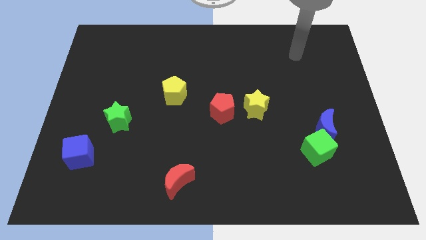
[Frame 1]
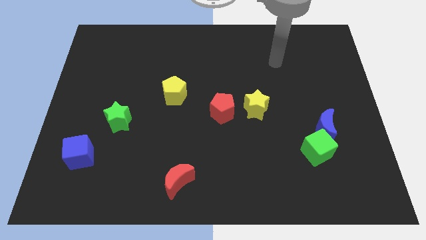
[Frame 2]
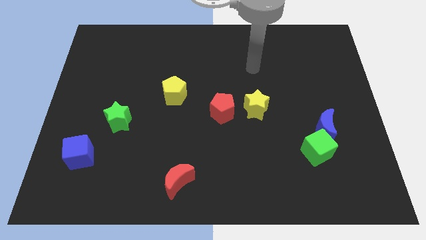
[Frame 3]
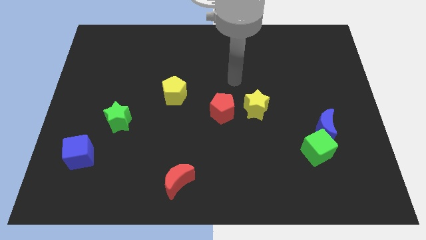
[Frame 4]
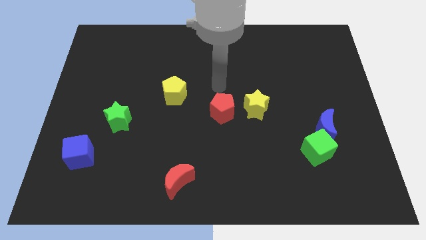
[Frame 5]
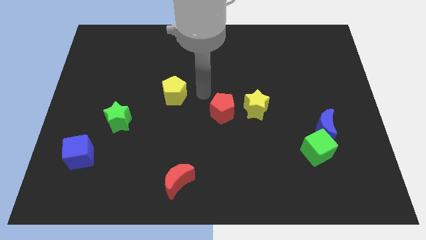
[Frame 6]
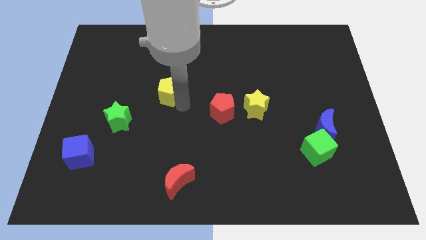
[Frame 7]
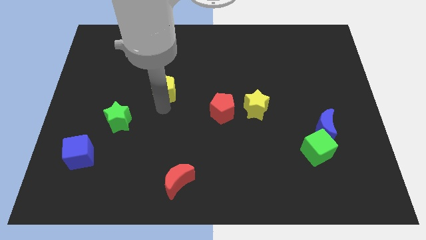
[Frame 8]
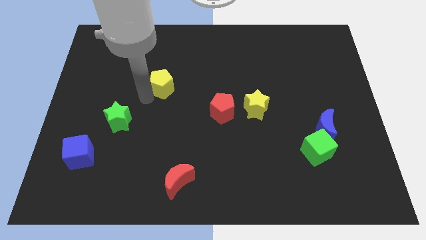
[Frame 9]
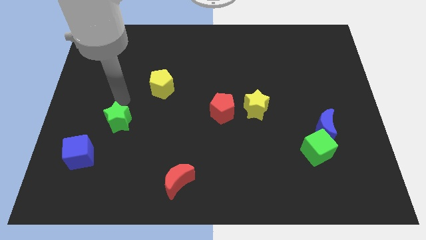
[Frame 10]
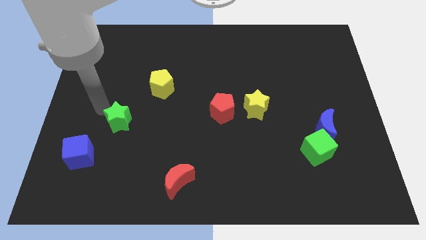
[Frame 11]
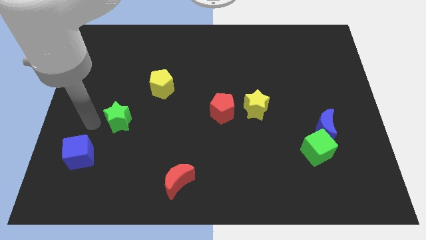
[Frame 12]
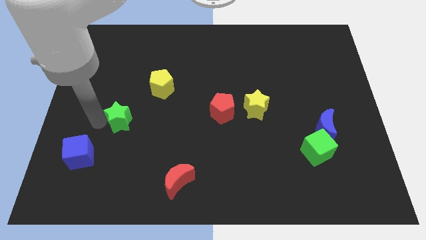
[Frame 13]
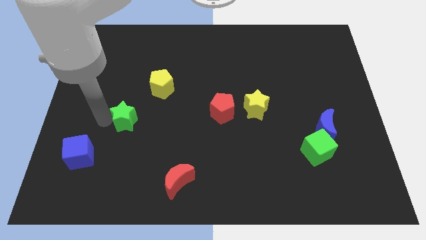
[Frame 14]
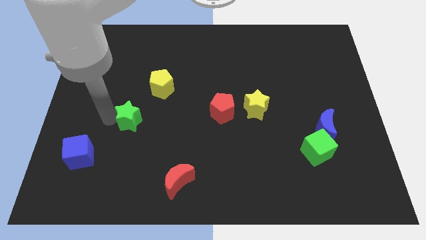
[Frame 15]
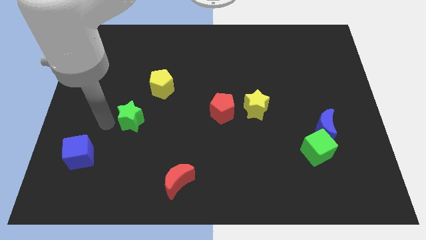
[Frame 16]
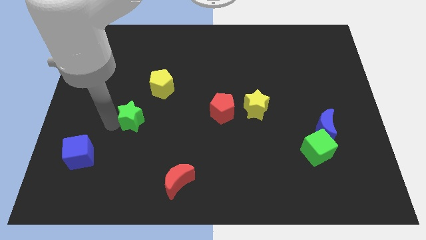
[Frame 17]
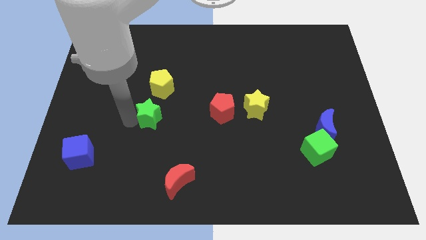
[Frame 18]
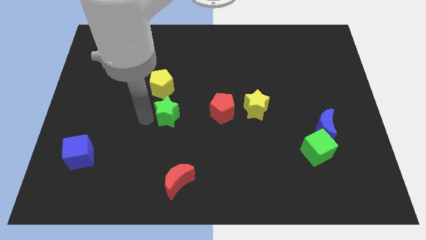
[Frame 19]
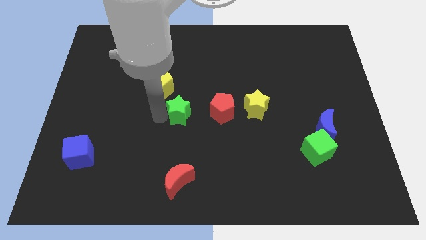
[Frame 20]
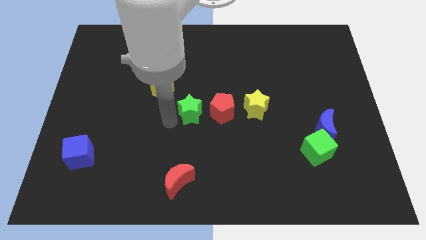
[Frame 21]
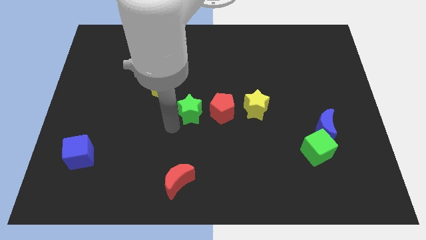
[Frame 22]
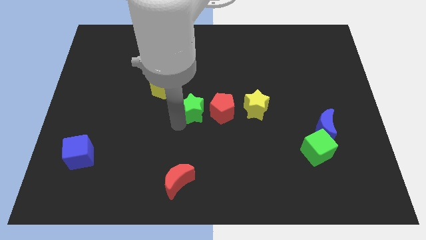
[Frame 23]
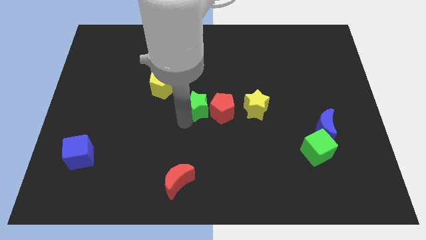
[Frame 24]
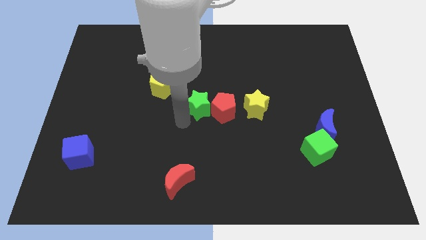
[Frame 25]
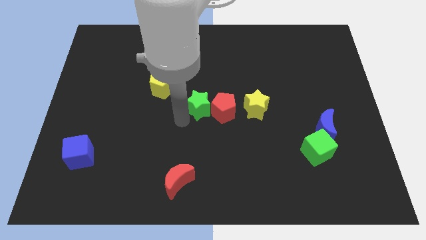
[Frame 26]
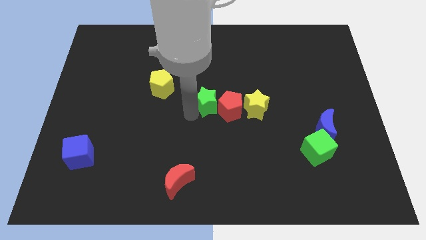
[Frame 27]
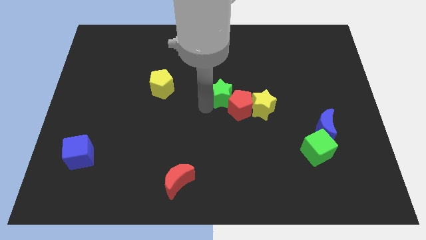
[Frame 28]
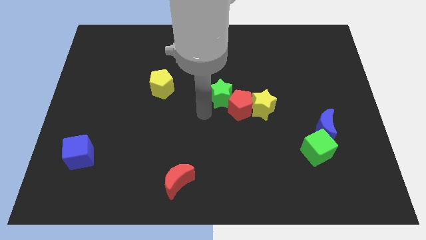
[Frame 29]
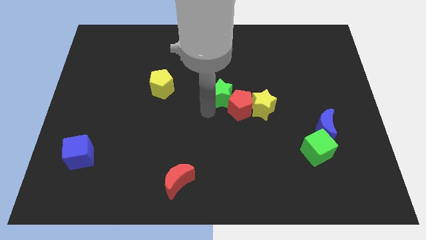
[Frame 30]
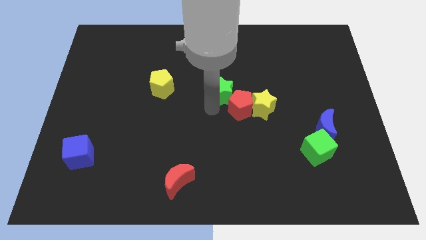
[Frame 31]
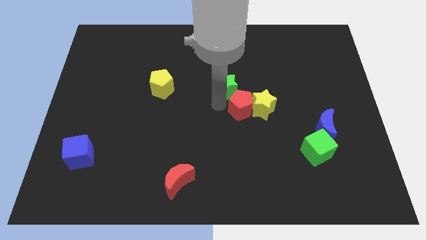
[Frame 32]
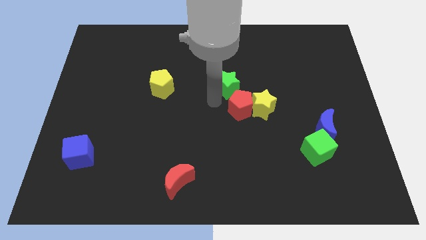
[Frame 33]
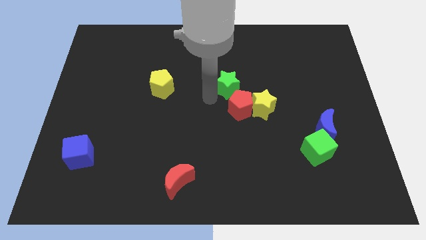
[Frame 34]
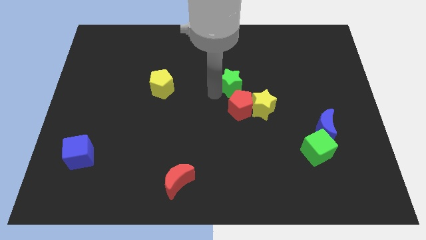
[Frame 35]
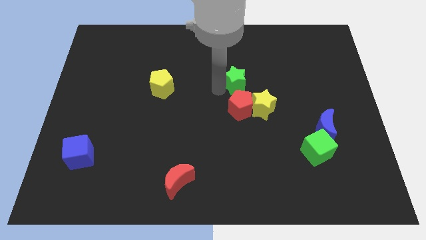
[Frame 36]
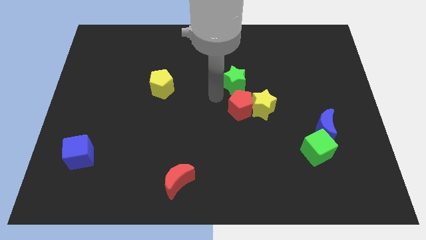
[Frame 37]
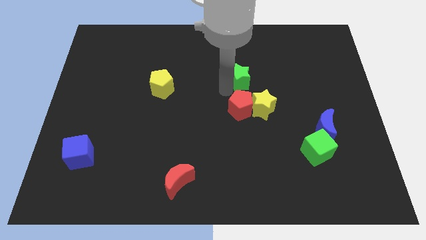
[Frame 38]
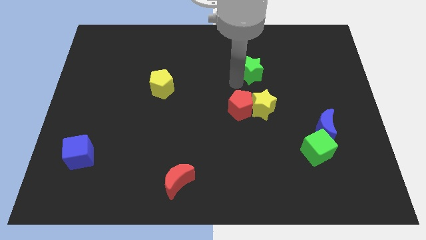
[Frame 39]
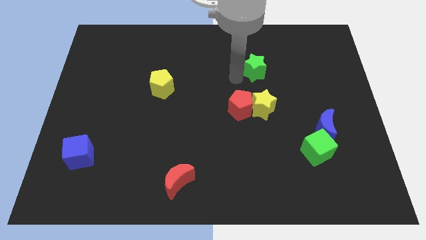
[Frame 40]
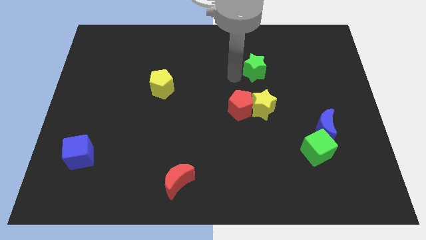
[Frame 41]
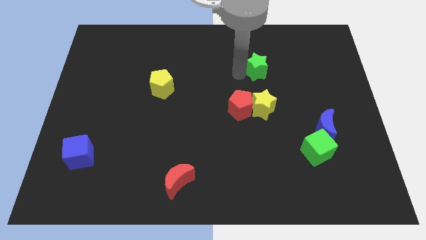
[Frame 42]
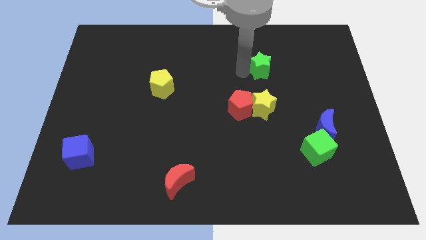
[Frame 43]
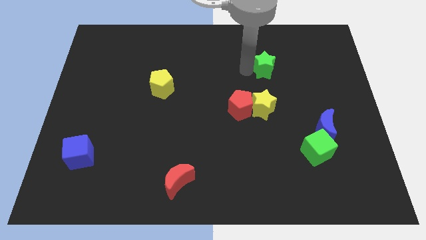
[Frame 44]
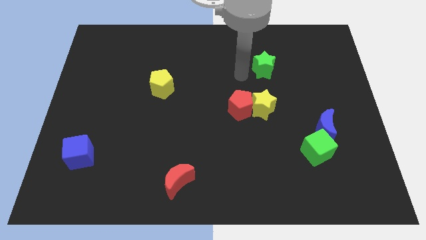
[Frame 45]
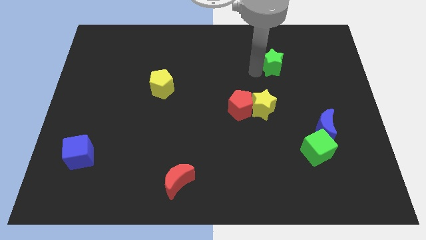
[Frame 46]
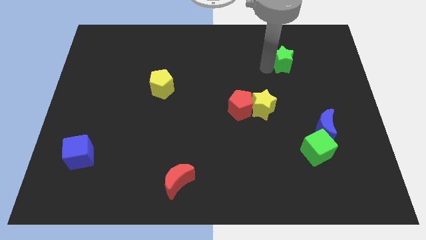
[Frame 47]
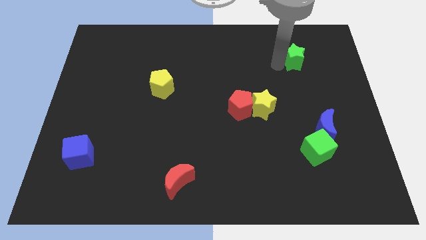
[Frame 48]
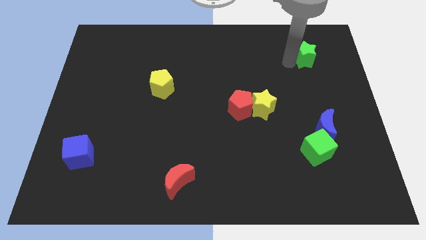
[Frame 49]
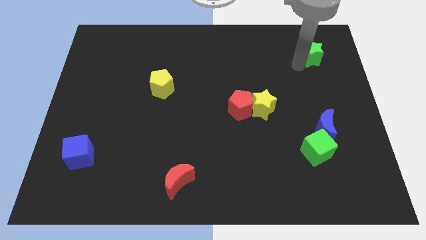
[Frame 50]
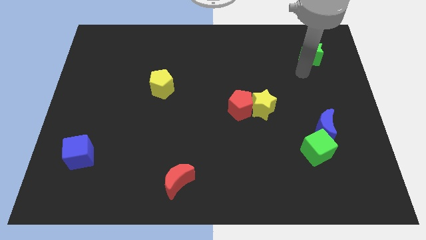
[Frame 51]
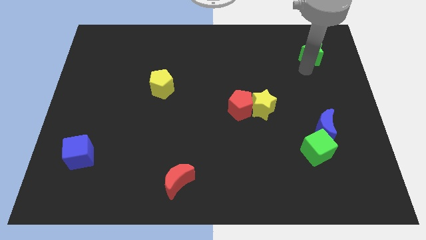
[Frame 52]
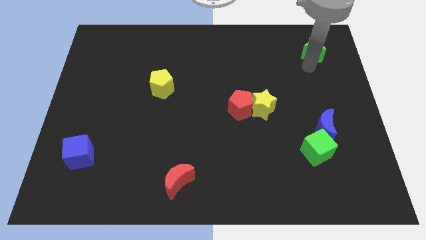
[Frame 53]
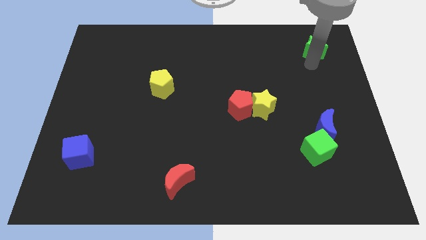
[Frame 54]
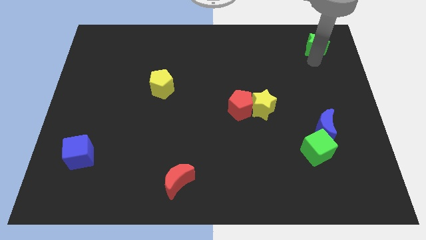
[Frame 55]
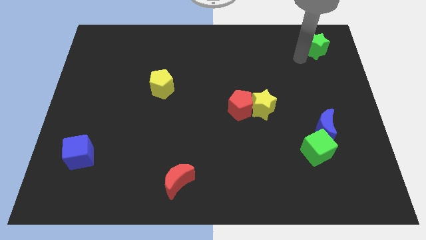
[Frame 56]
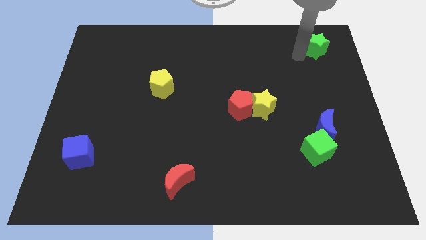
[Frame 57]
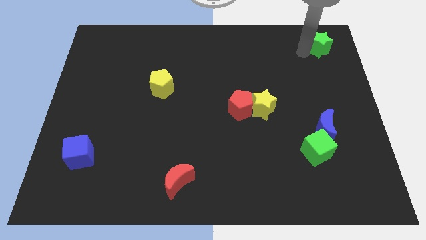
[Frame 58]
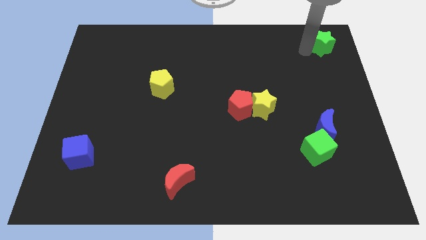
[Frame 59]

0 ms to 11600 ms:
push the green star to the top right corner
